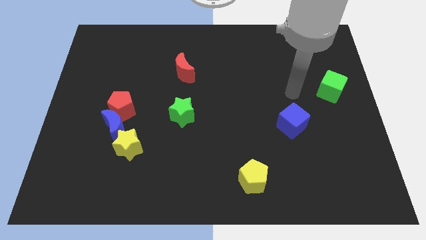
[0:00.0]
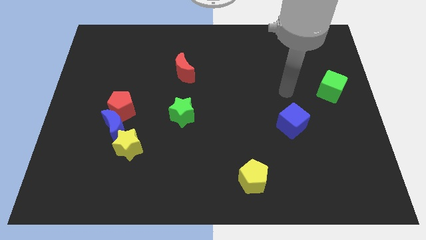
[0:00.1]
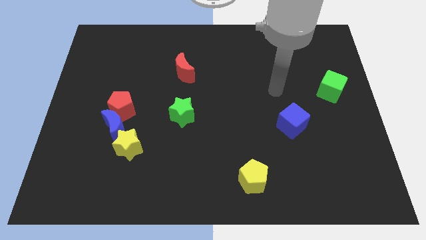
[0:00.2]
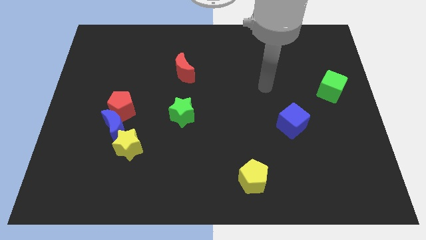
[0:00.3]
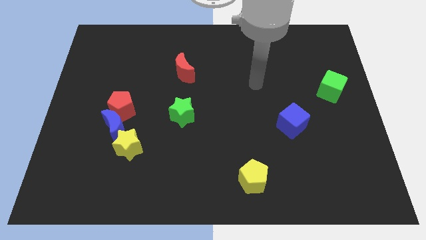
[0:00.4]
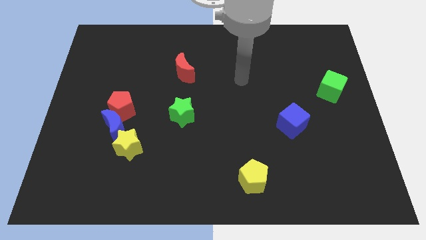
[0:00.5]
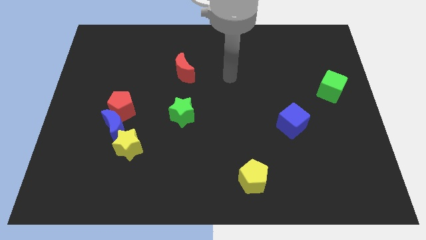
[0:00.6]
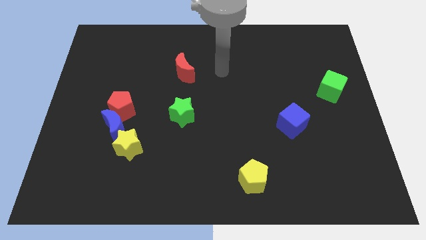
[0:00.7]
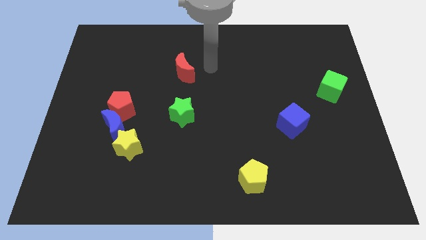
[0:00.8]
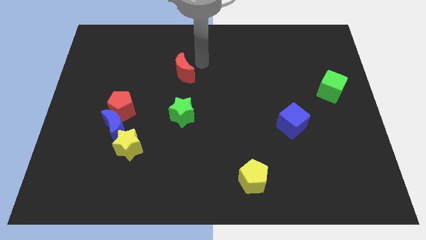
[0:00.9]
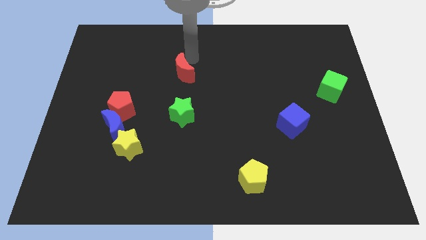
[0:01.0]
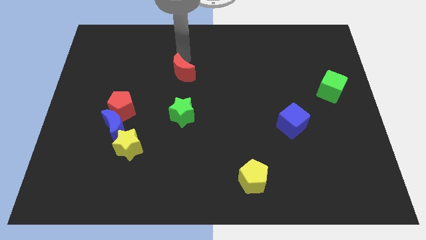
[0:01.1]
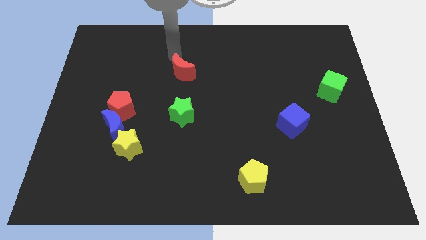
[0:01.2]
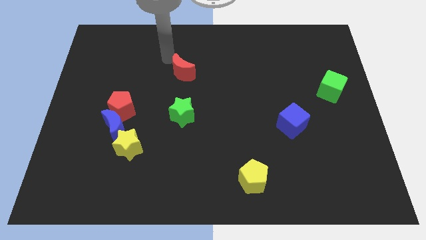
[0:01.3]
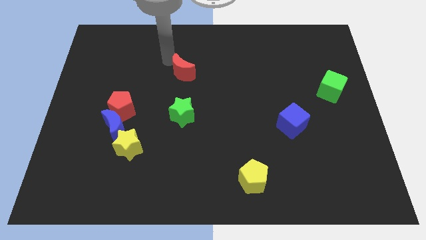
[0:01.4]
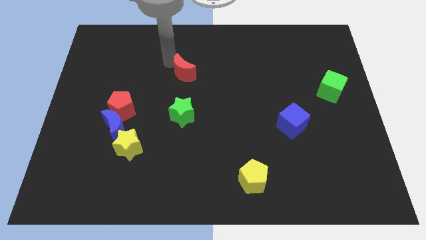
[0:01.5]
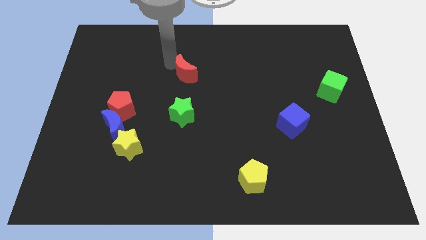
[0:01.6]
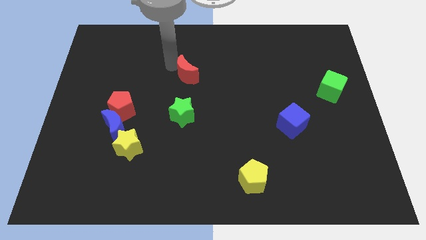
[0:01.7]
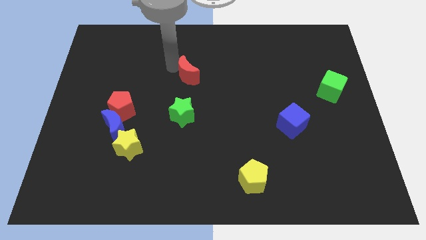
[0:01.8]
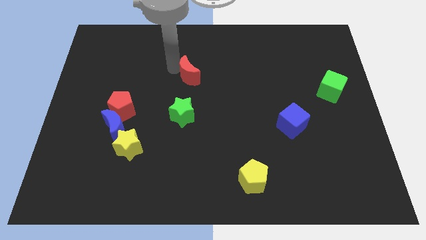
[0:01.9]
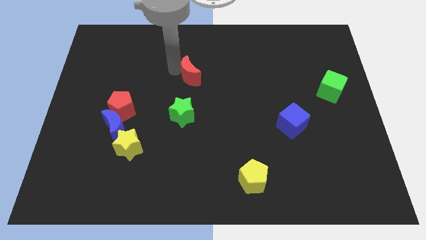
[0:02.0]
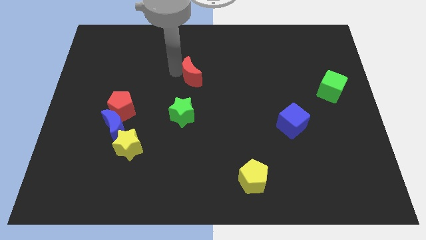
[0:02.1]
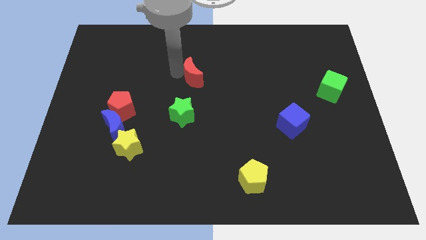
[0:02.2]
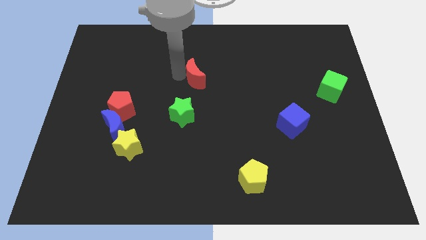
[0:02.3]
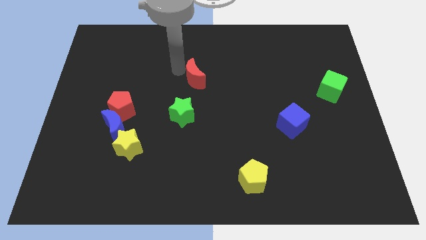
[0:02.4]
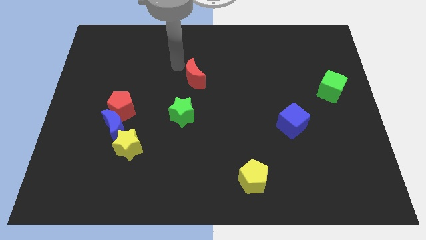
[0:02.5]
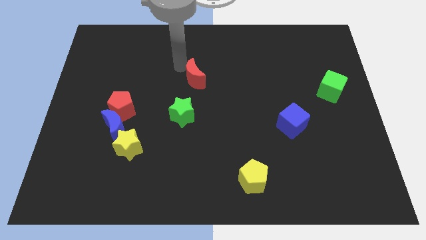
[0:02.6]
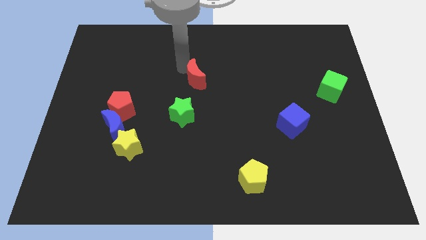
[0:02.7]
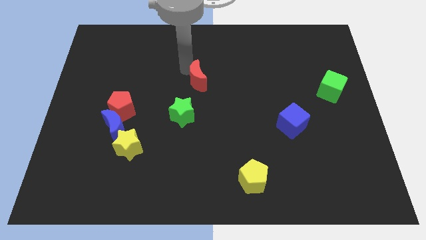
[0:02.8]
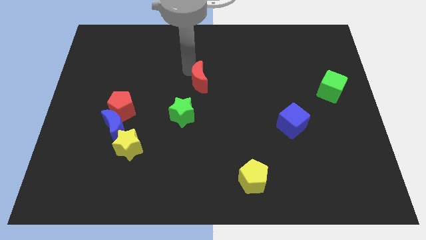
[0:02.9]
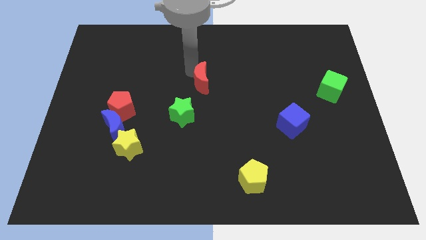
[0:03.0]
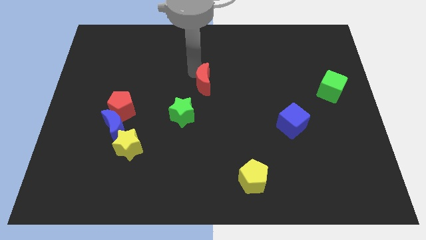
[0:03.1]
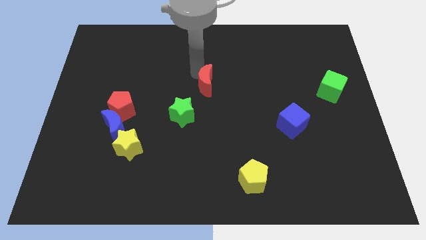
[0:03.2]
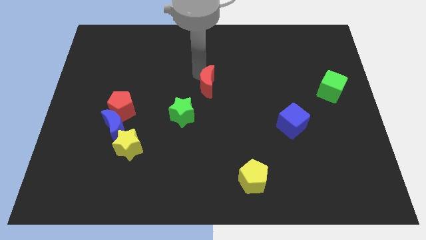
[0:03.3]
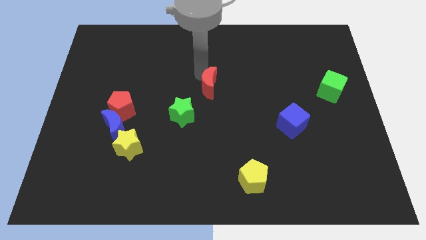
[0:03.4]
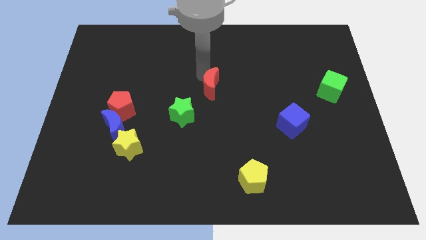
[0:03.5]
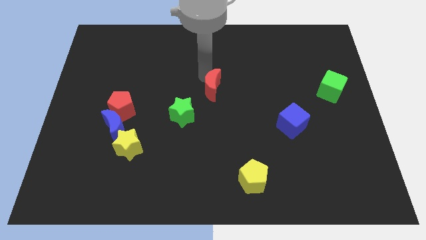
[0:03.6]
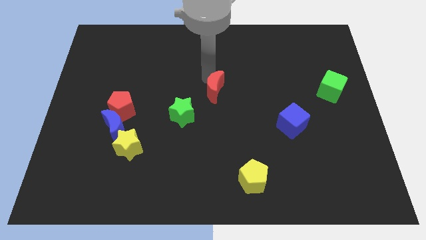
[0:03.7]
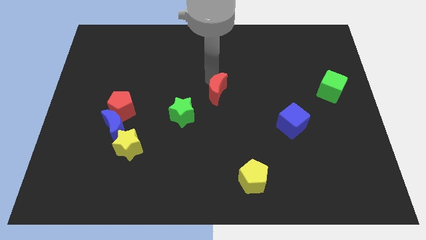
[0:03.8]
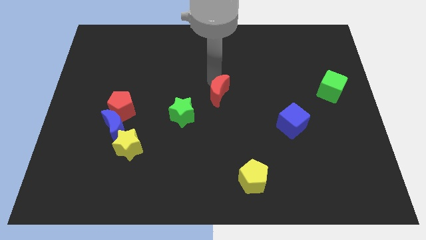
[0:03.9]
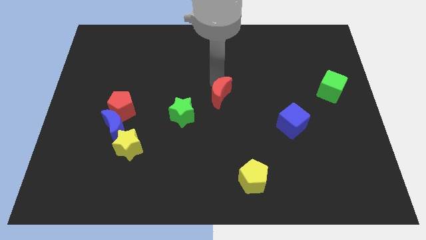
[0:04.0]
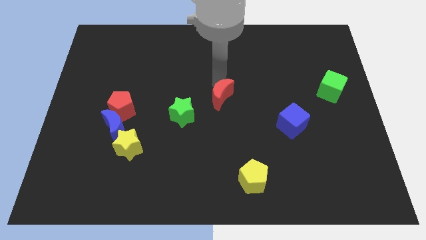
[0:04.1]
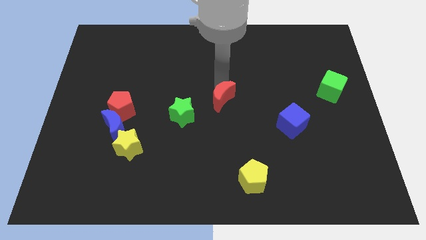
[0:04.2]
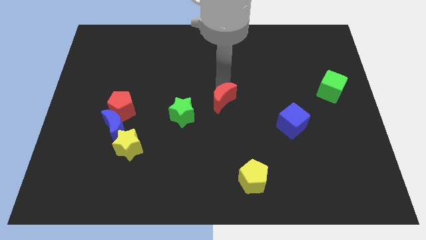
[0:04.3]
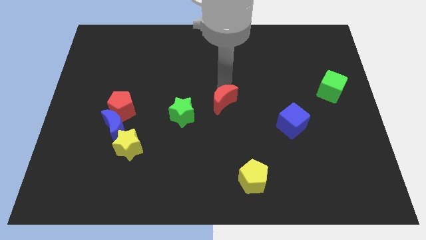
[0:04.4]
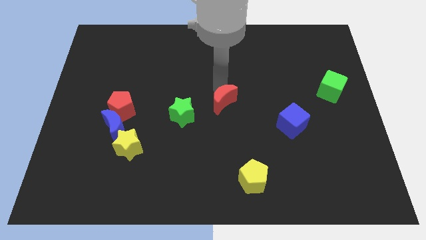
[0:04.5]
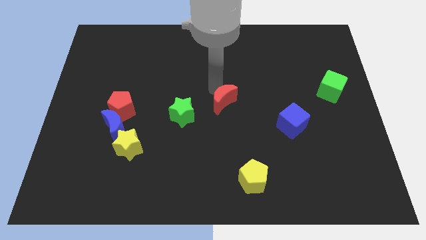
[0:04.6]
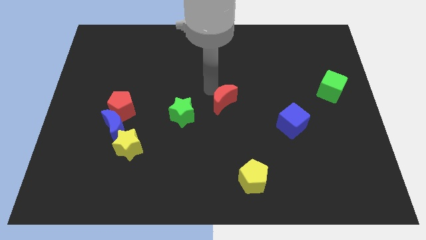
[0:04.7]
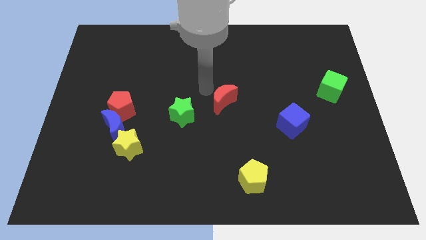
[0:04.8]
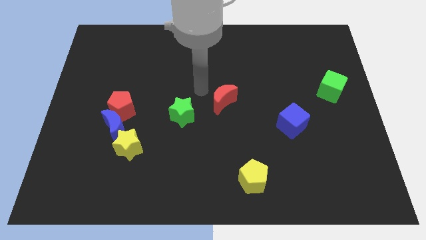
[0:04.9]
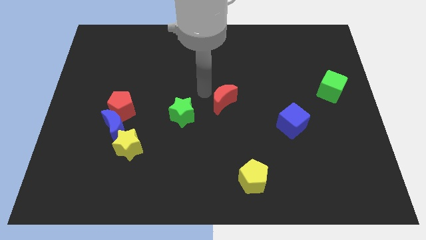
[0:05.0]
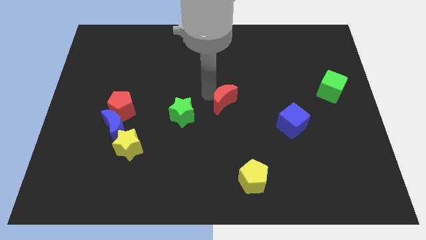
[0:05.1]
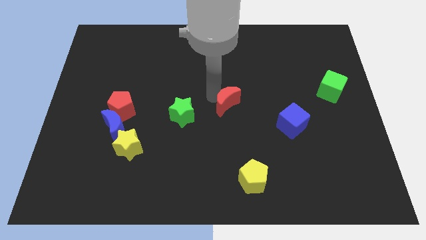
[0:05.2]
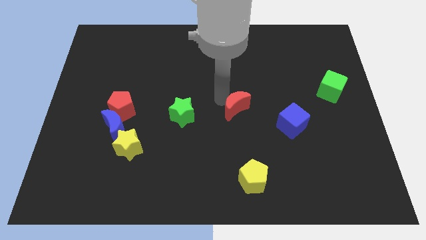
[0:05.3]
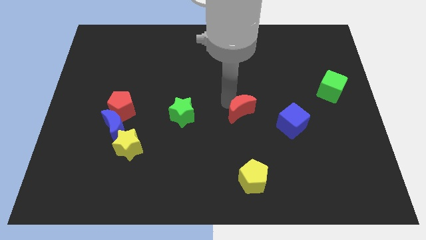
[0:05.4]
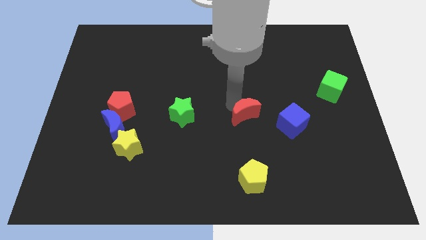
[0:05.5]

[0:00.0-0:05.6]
move the red moon downwards and then right

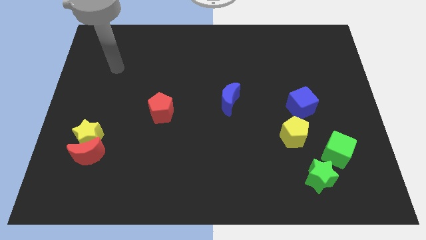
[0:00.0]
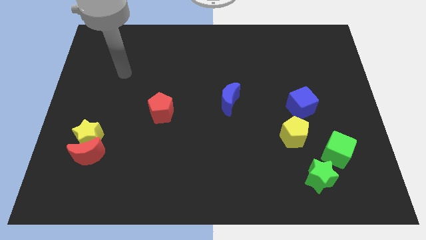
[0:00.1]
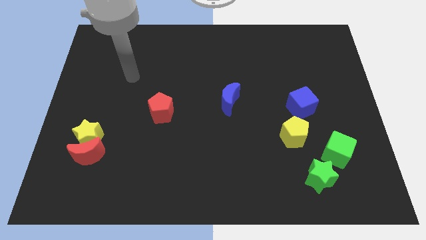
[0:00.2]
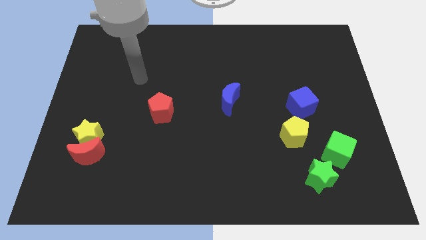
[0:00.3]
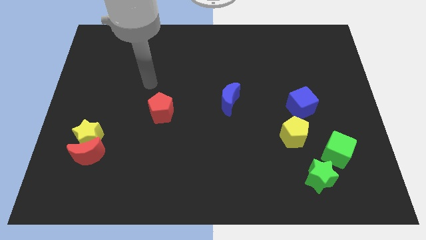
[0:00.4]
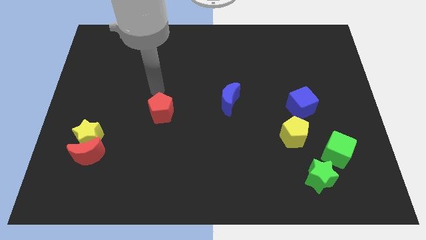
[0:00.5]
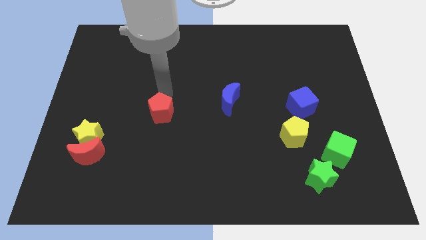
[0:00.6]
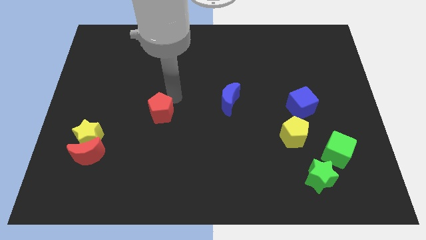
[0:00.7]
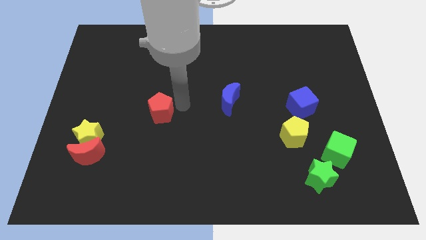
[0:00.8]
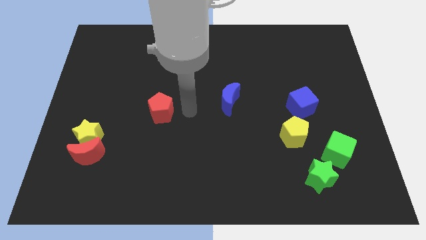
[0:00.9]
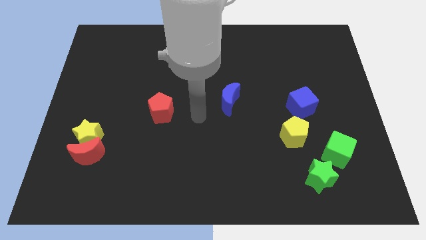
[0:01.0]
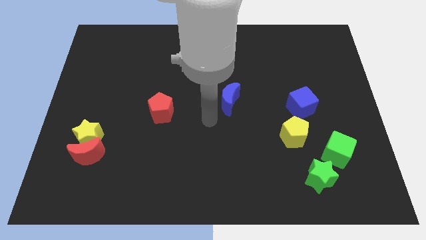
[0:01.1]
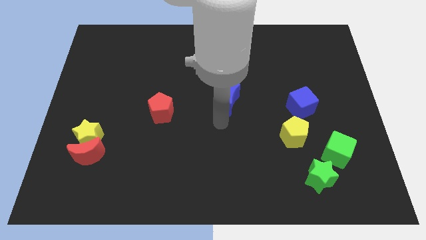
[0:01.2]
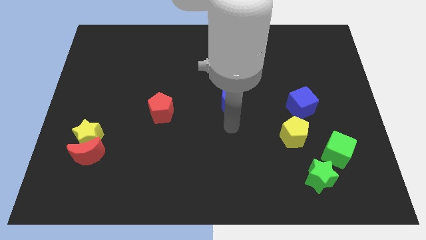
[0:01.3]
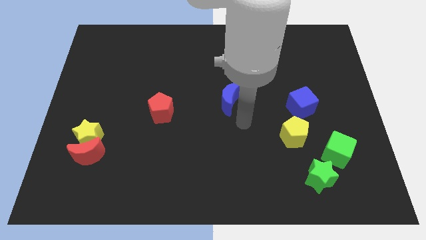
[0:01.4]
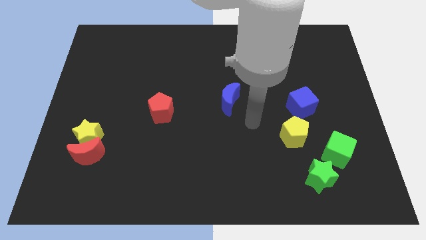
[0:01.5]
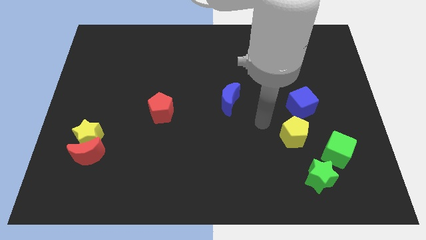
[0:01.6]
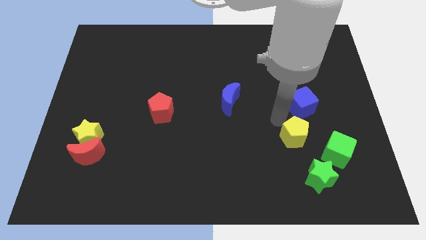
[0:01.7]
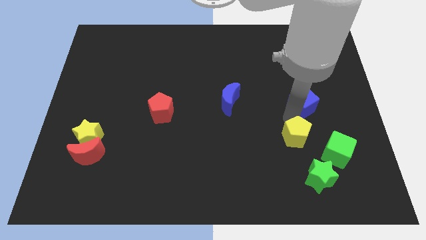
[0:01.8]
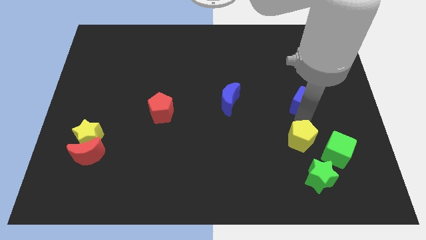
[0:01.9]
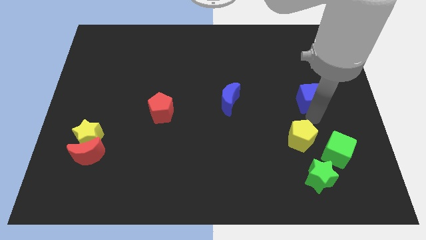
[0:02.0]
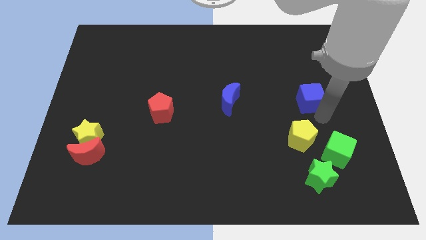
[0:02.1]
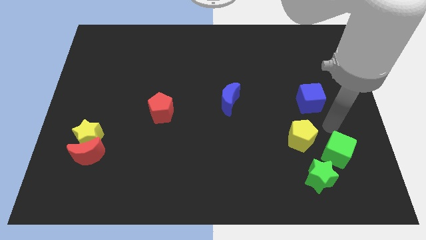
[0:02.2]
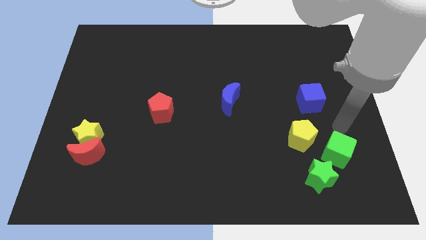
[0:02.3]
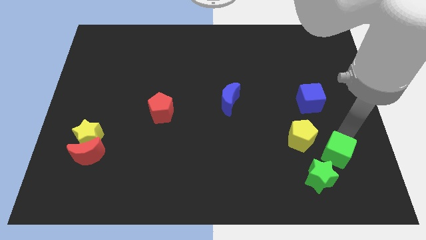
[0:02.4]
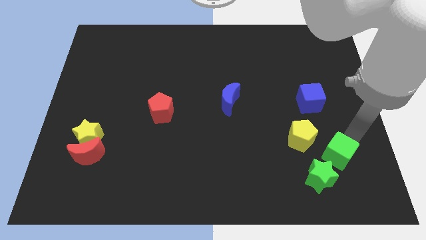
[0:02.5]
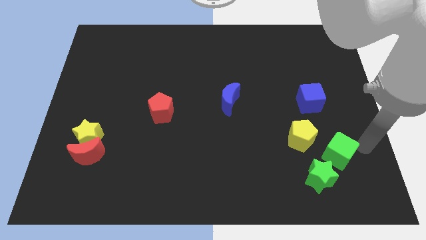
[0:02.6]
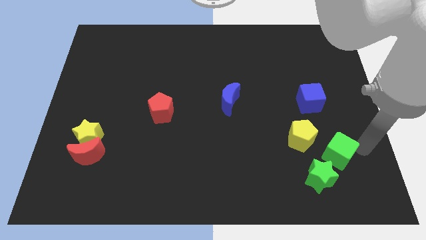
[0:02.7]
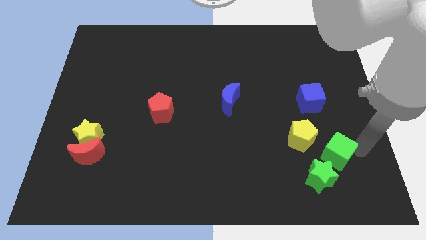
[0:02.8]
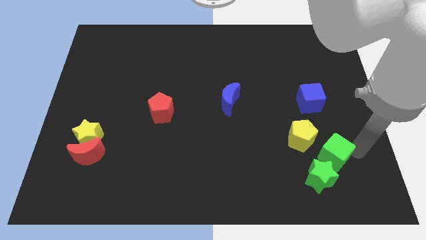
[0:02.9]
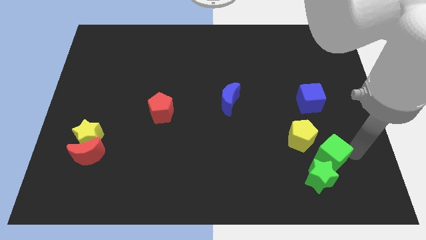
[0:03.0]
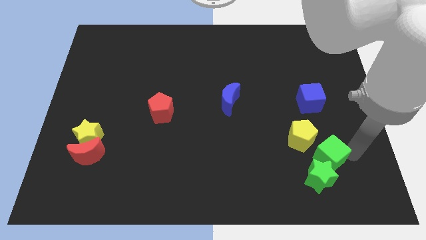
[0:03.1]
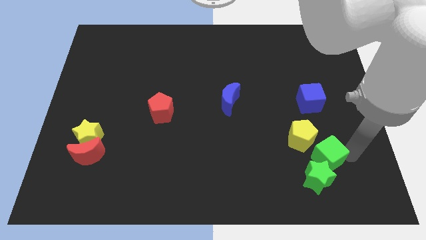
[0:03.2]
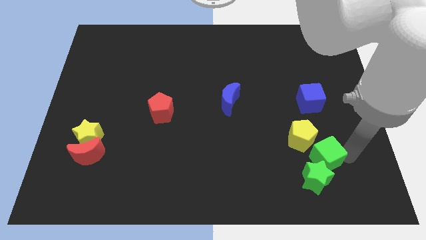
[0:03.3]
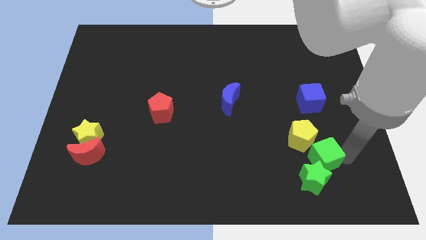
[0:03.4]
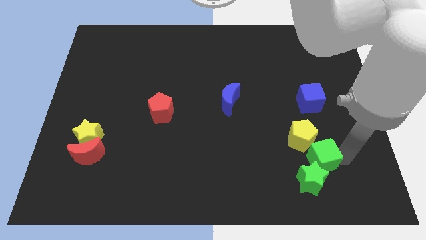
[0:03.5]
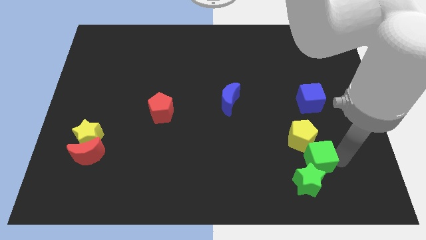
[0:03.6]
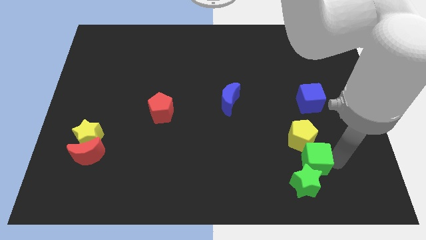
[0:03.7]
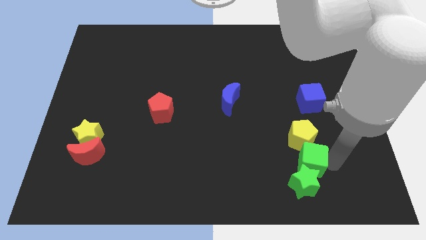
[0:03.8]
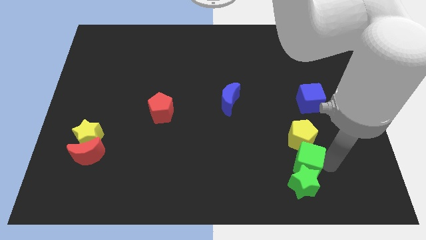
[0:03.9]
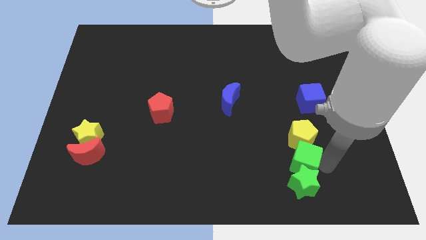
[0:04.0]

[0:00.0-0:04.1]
slightly push the green cube left
